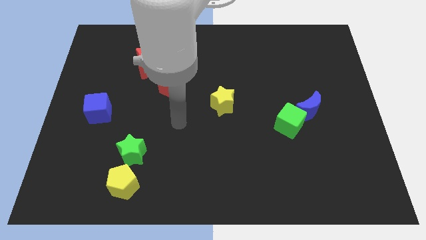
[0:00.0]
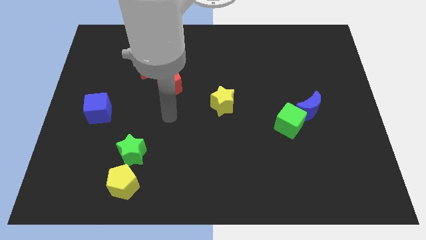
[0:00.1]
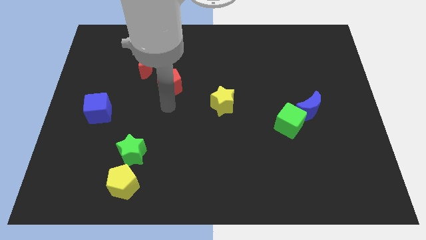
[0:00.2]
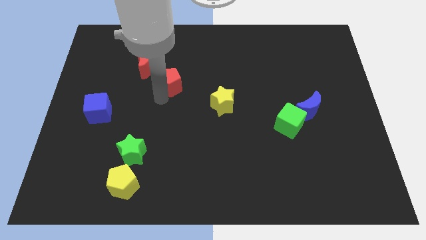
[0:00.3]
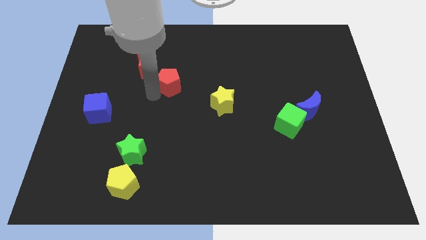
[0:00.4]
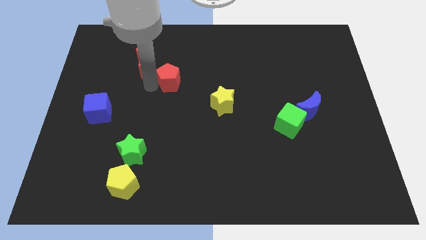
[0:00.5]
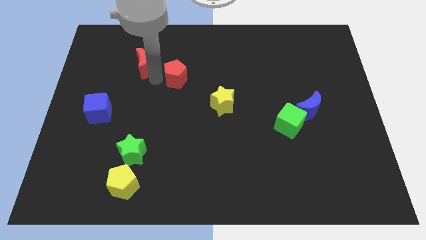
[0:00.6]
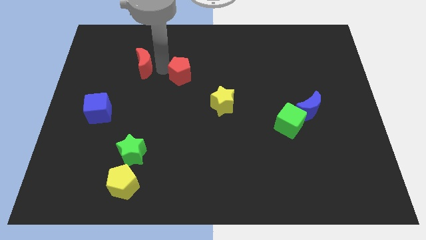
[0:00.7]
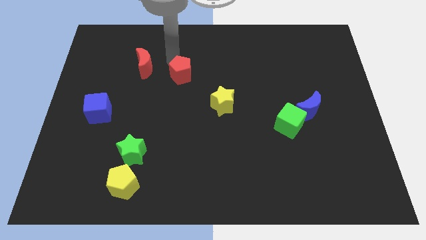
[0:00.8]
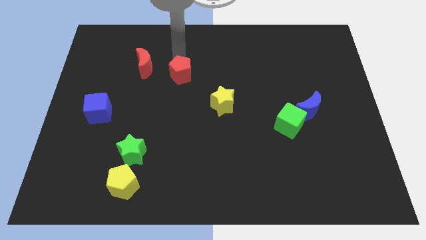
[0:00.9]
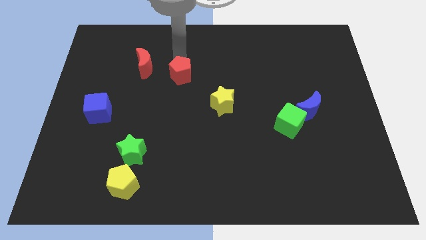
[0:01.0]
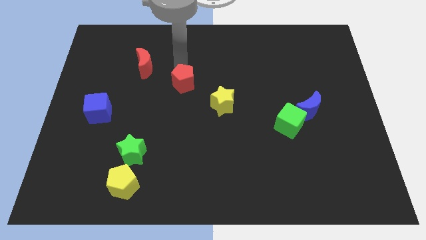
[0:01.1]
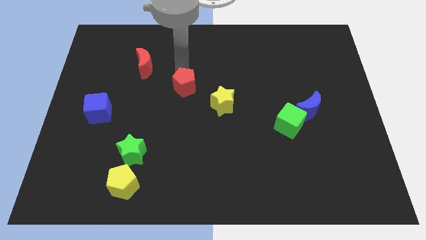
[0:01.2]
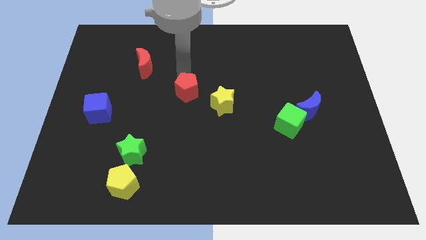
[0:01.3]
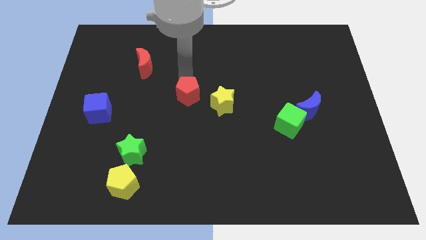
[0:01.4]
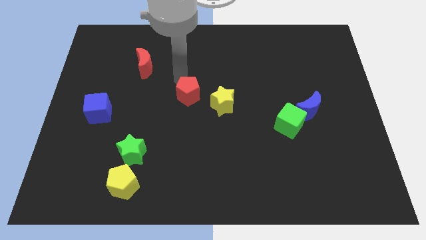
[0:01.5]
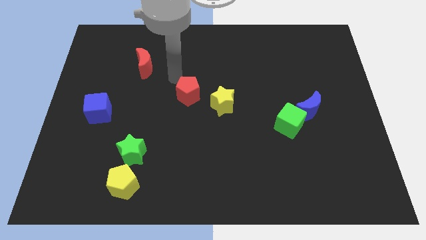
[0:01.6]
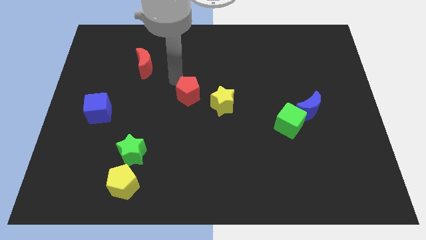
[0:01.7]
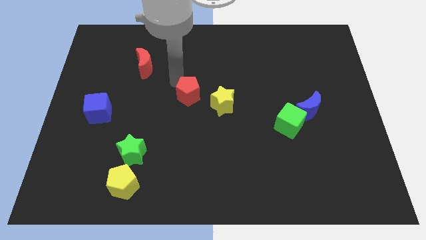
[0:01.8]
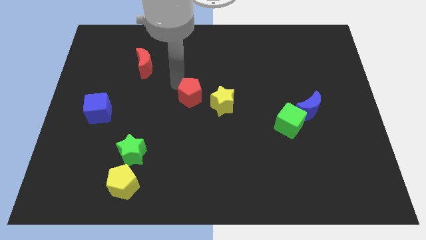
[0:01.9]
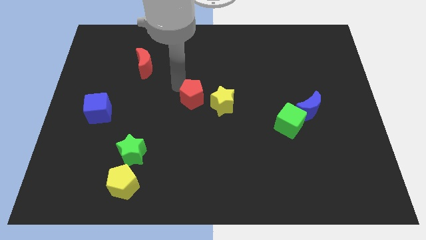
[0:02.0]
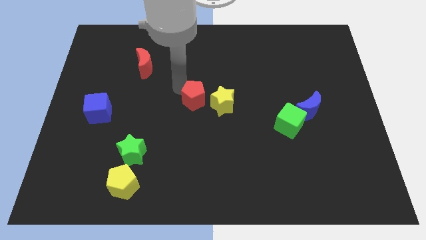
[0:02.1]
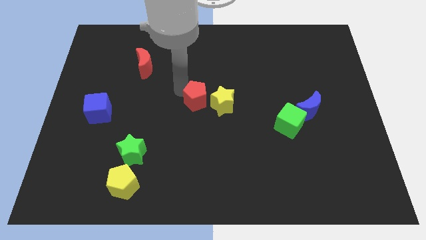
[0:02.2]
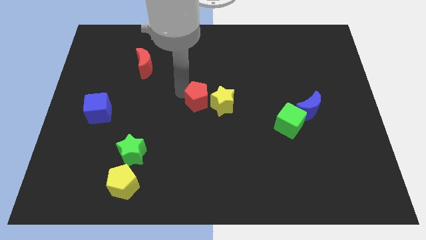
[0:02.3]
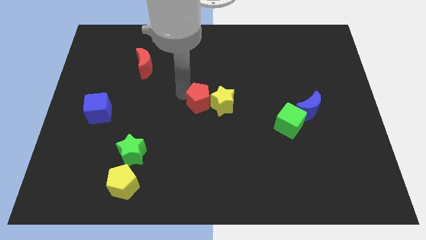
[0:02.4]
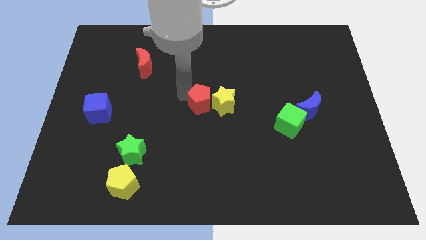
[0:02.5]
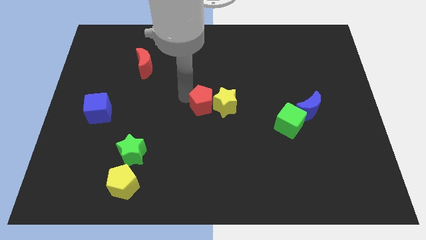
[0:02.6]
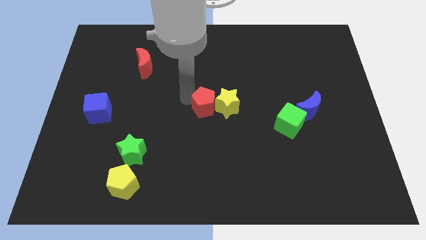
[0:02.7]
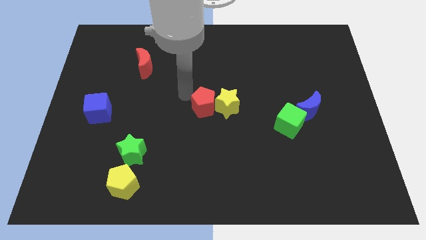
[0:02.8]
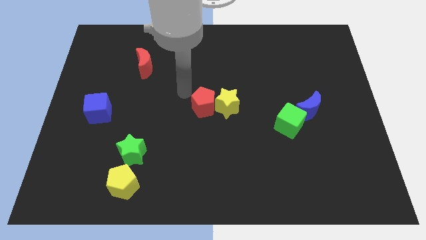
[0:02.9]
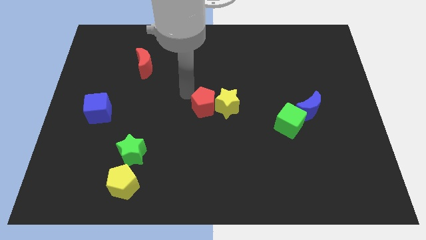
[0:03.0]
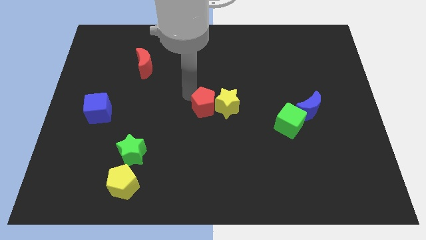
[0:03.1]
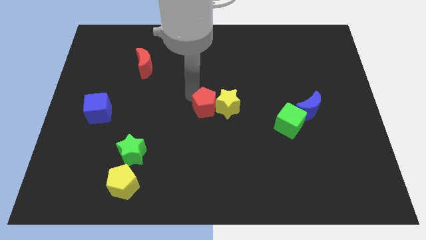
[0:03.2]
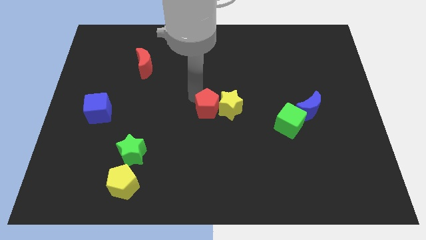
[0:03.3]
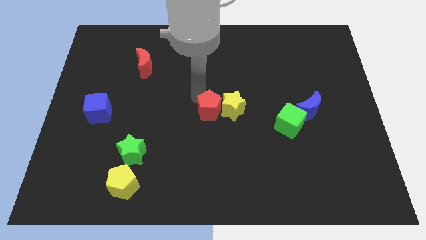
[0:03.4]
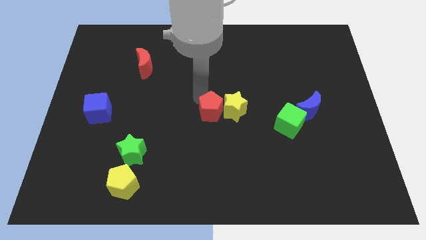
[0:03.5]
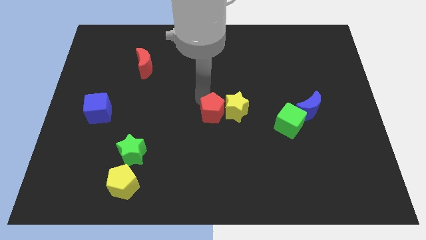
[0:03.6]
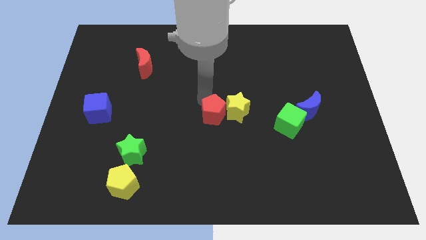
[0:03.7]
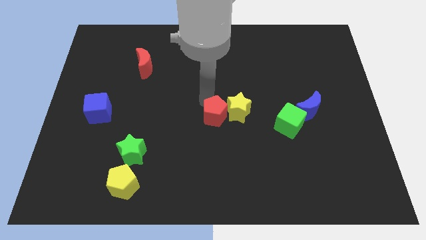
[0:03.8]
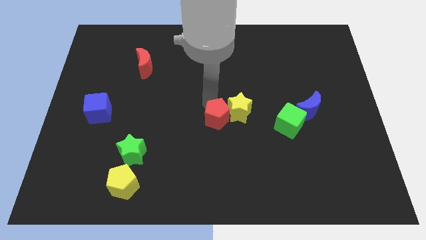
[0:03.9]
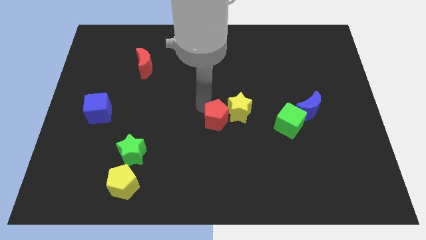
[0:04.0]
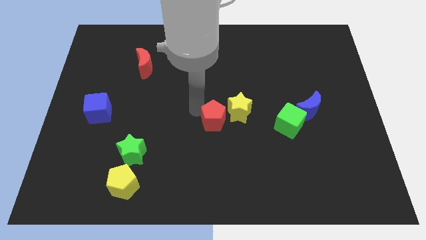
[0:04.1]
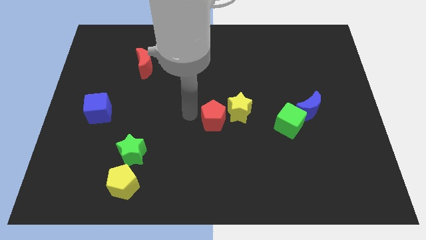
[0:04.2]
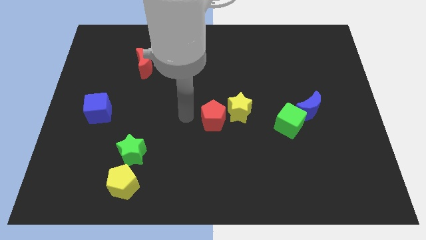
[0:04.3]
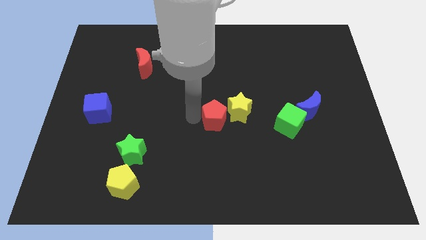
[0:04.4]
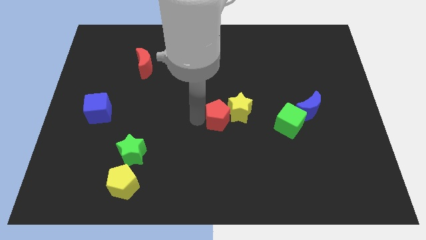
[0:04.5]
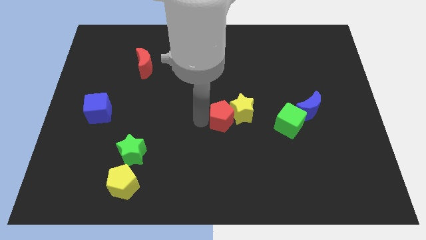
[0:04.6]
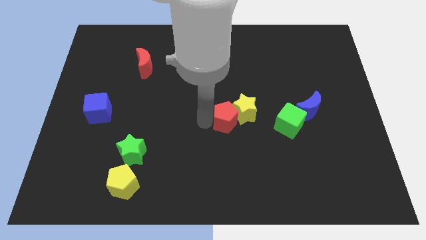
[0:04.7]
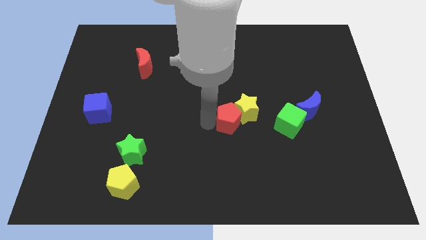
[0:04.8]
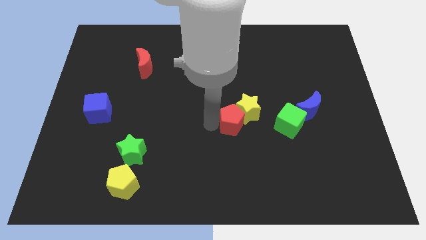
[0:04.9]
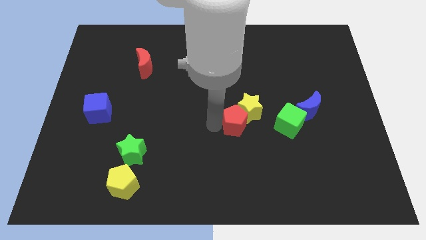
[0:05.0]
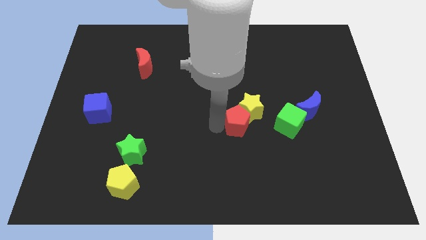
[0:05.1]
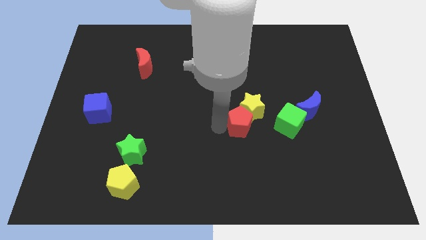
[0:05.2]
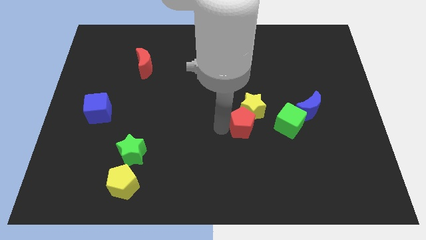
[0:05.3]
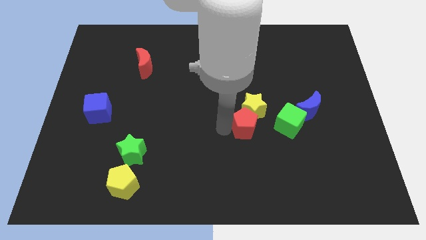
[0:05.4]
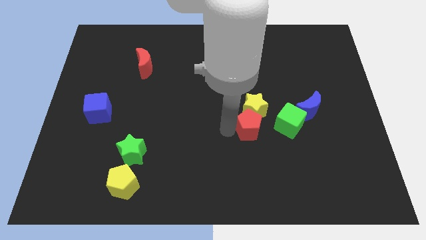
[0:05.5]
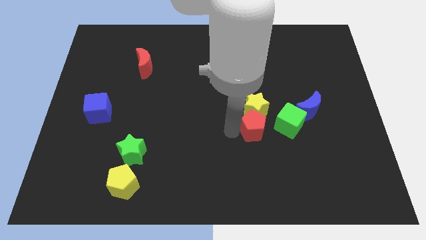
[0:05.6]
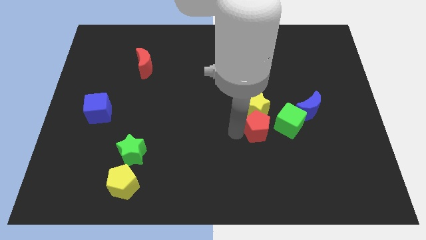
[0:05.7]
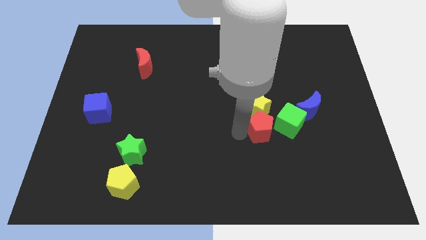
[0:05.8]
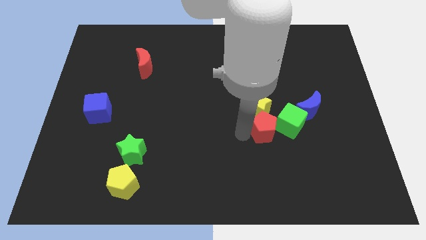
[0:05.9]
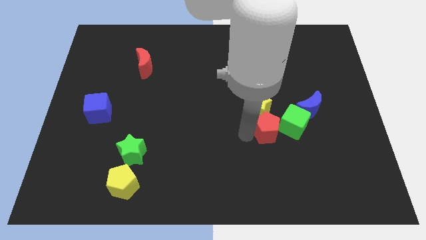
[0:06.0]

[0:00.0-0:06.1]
push the red pentagon to the bottom left of the blue moon

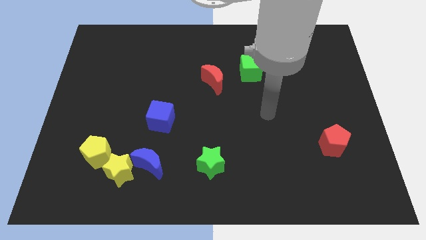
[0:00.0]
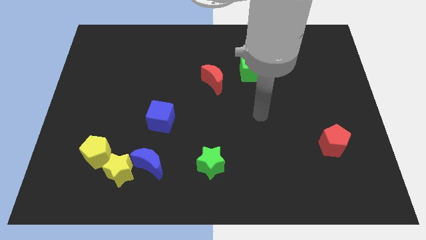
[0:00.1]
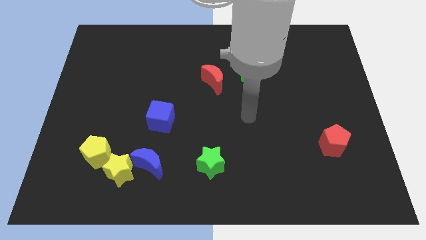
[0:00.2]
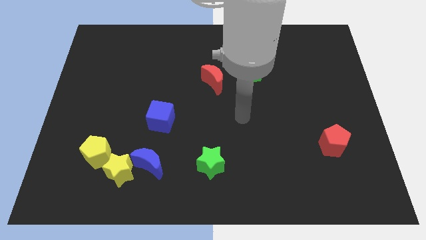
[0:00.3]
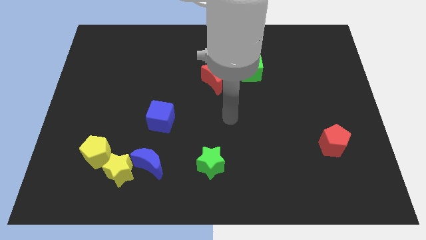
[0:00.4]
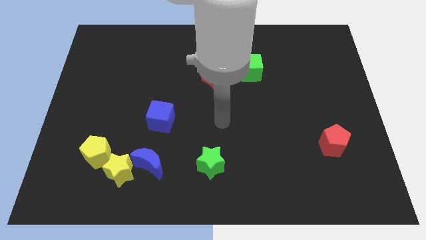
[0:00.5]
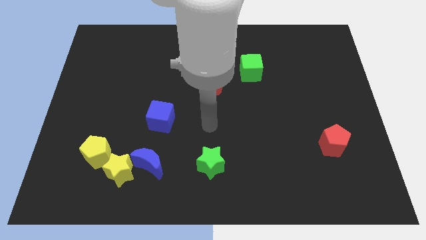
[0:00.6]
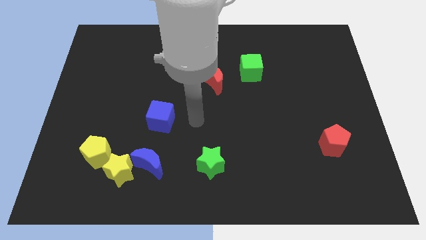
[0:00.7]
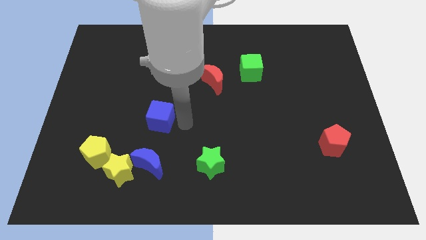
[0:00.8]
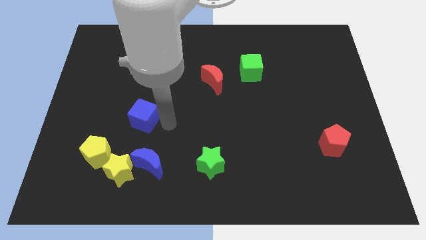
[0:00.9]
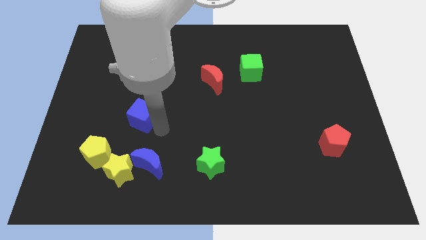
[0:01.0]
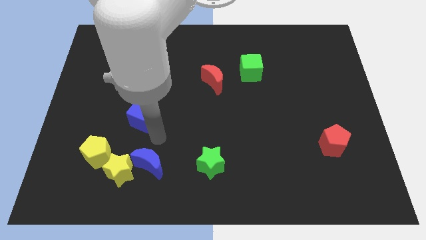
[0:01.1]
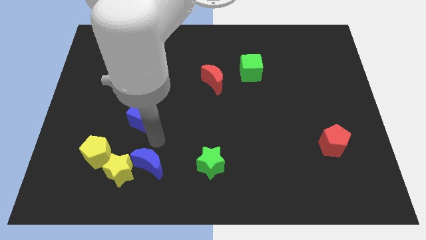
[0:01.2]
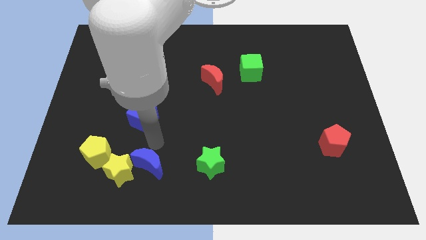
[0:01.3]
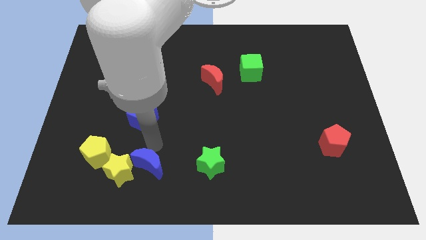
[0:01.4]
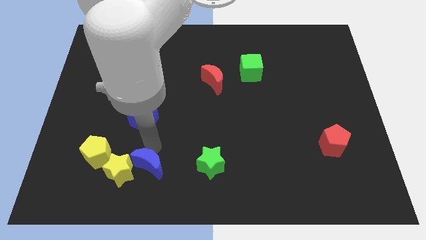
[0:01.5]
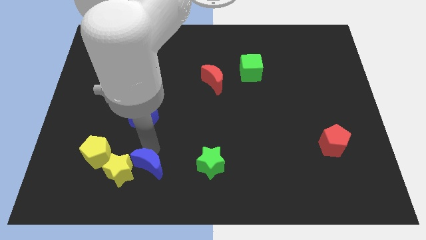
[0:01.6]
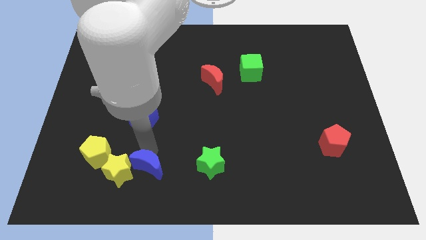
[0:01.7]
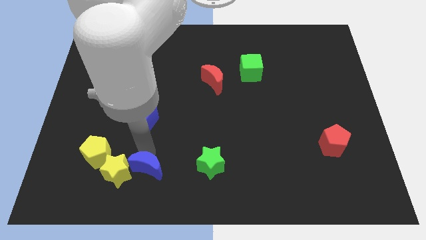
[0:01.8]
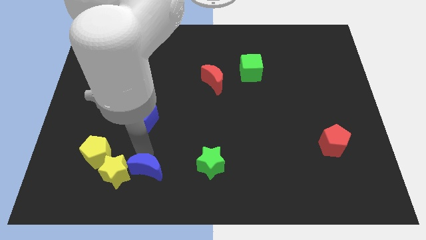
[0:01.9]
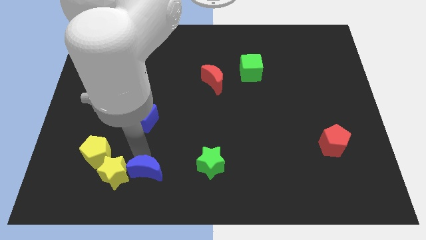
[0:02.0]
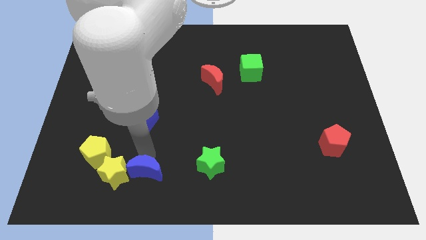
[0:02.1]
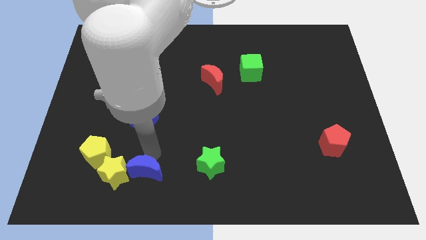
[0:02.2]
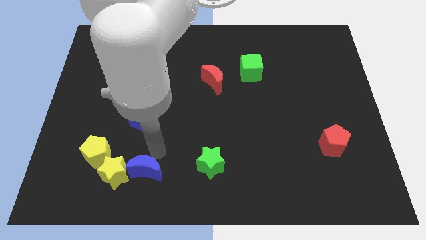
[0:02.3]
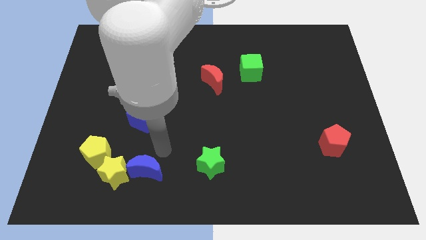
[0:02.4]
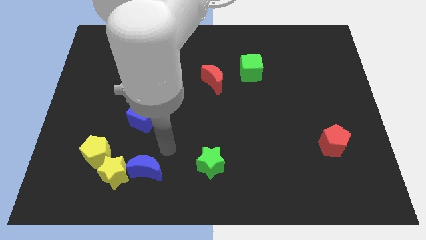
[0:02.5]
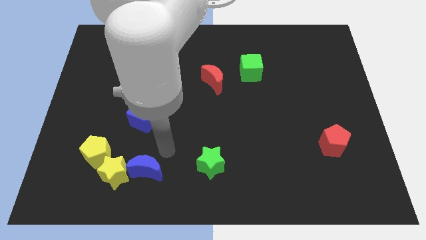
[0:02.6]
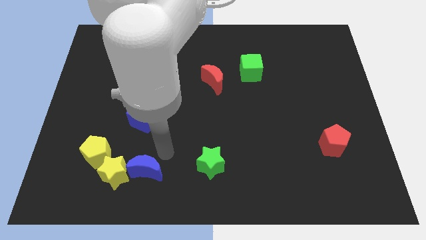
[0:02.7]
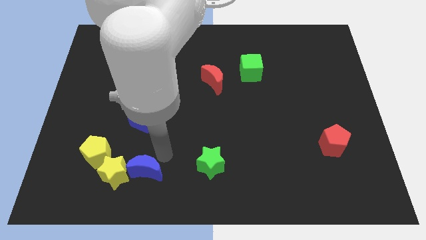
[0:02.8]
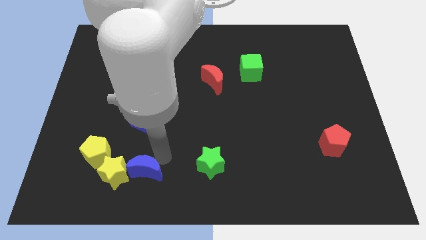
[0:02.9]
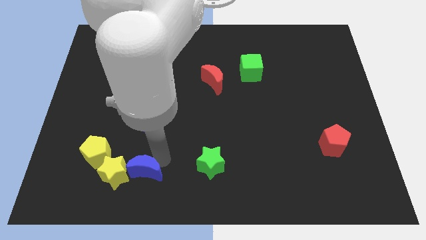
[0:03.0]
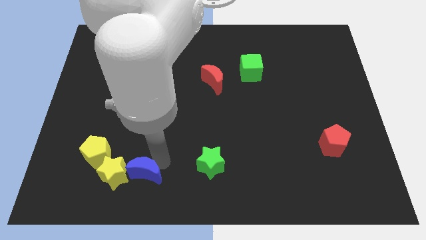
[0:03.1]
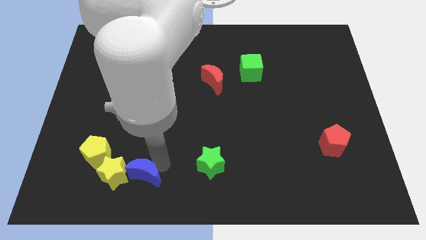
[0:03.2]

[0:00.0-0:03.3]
slide the blue moon diagonally down and to the right of the yellow pentagon
